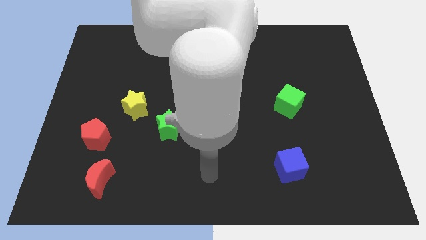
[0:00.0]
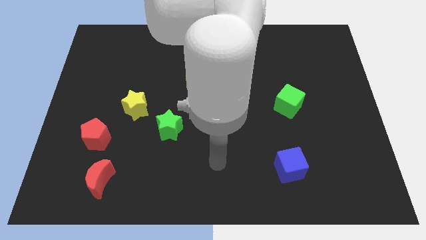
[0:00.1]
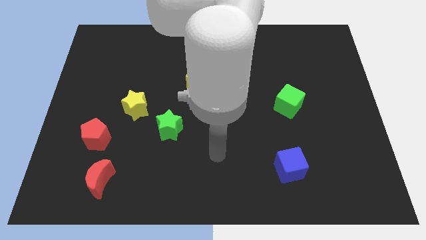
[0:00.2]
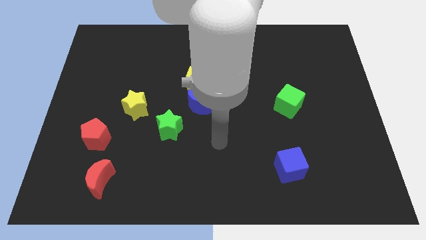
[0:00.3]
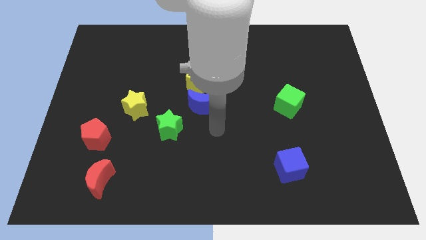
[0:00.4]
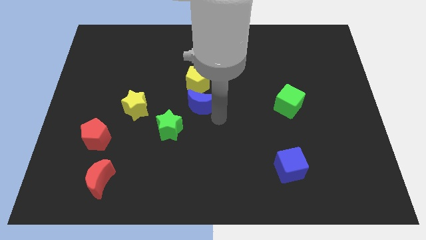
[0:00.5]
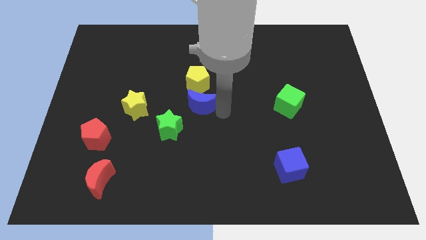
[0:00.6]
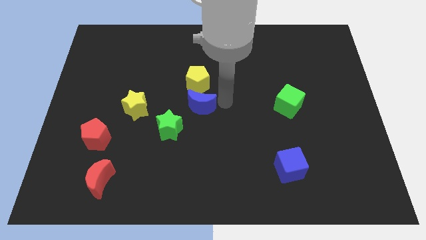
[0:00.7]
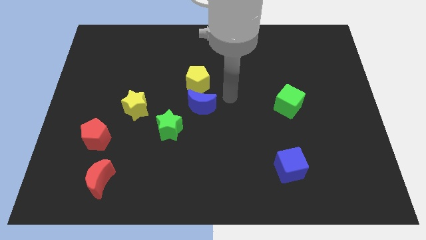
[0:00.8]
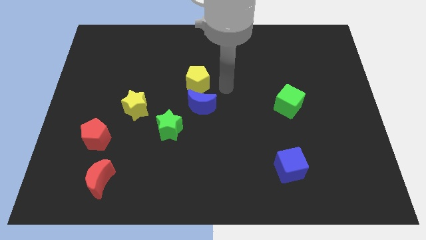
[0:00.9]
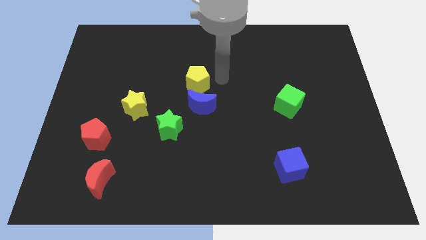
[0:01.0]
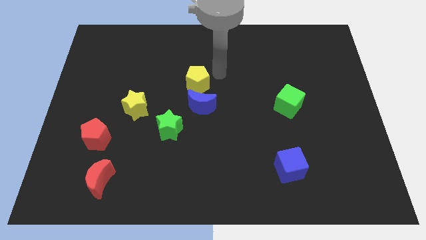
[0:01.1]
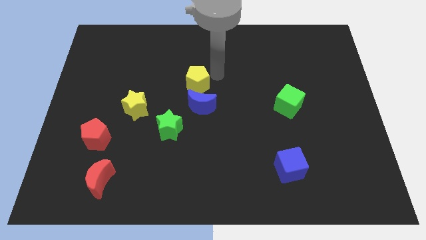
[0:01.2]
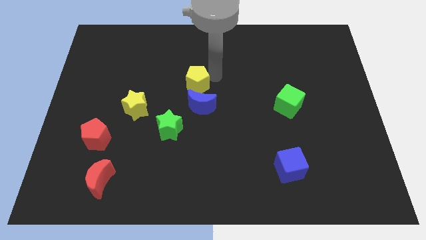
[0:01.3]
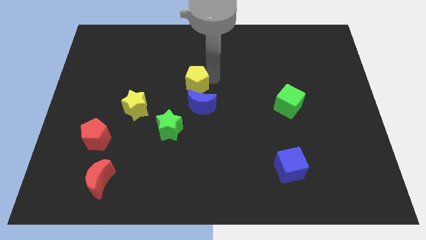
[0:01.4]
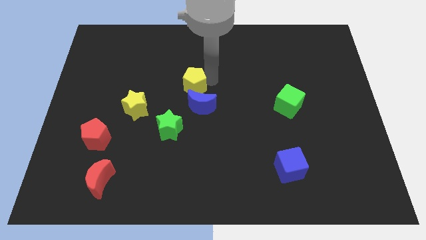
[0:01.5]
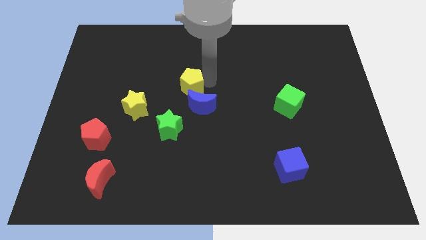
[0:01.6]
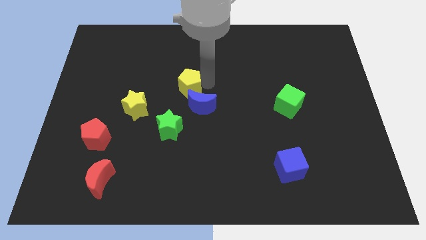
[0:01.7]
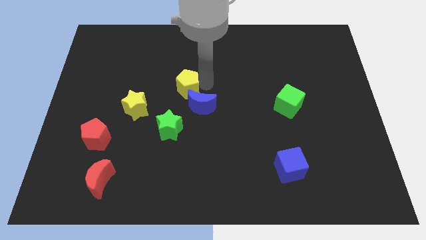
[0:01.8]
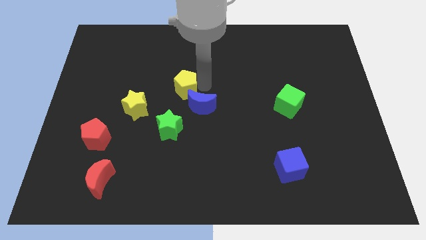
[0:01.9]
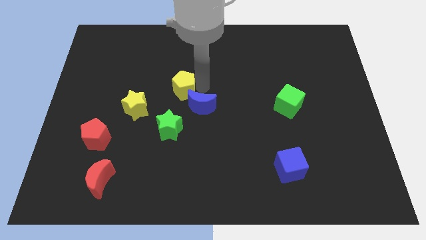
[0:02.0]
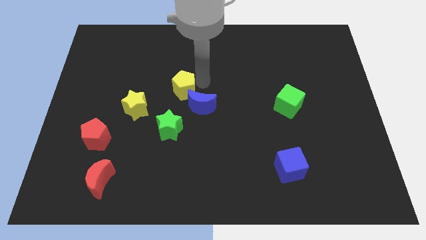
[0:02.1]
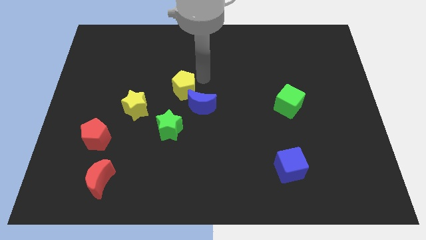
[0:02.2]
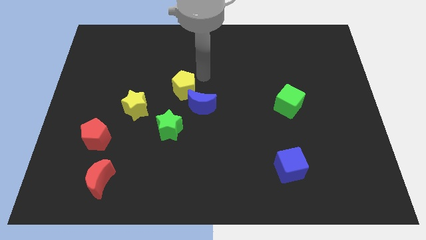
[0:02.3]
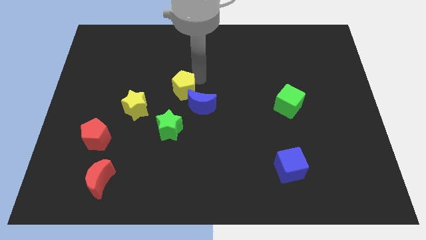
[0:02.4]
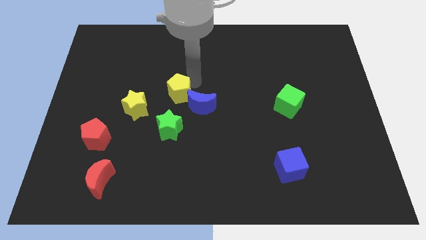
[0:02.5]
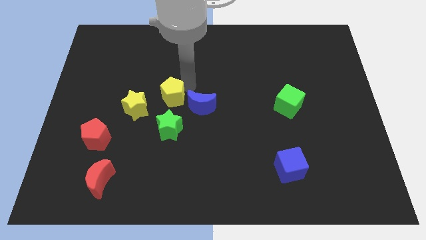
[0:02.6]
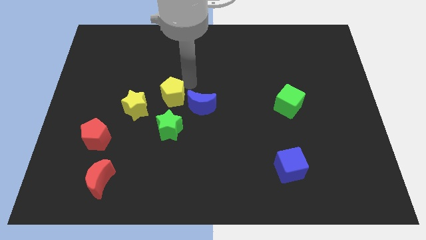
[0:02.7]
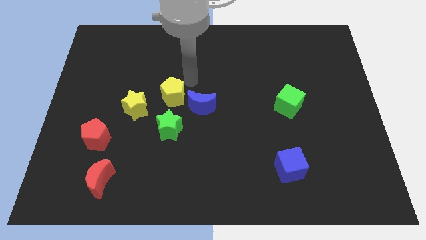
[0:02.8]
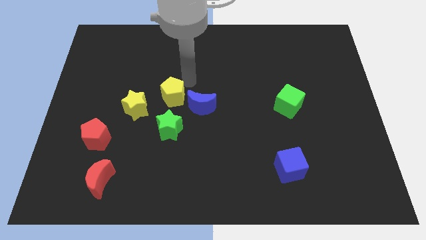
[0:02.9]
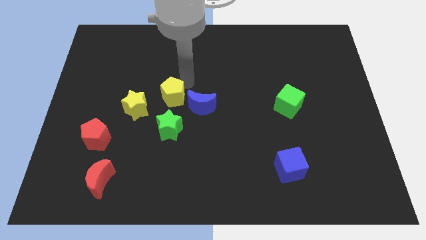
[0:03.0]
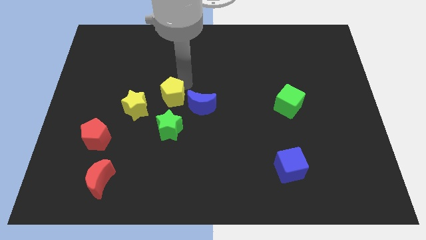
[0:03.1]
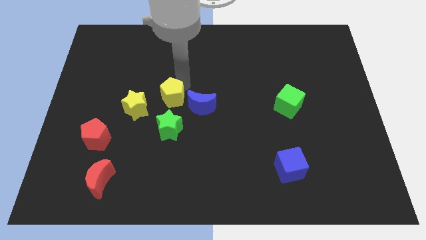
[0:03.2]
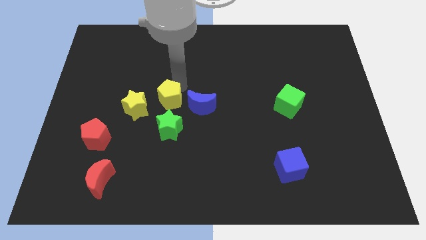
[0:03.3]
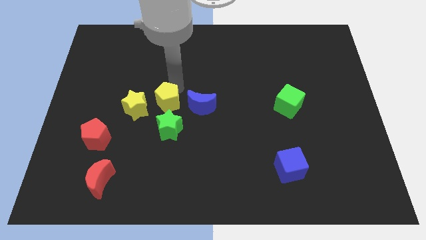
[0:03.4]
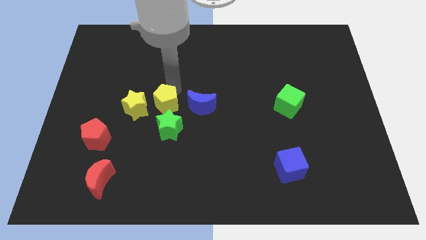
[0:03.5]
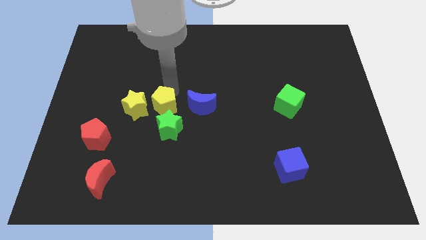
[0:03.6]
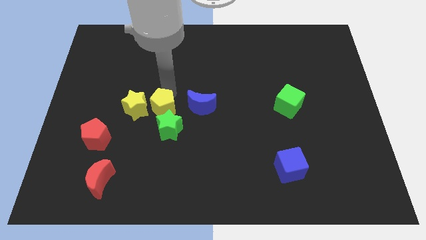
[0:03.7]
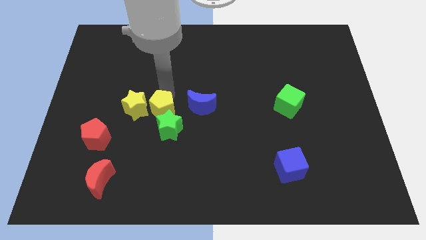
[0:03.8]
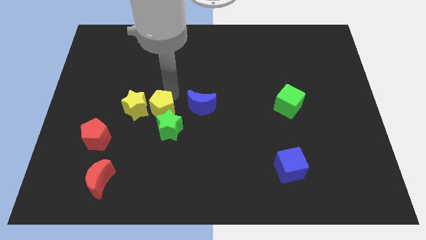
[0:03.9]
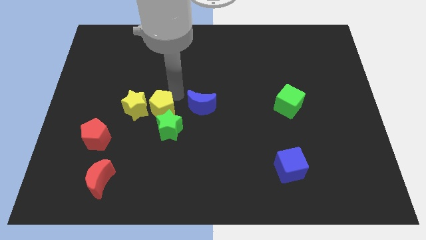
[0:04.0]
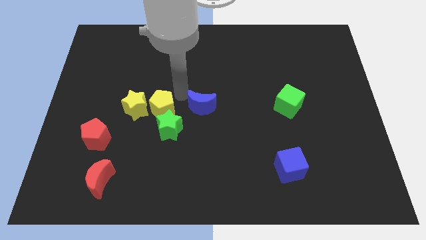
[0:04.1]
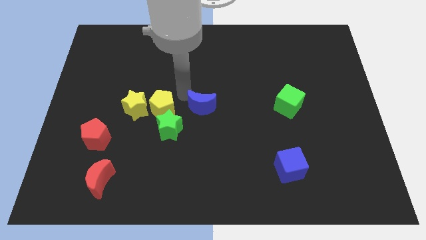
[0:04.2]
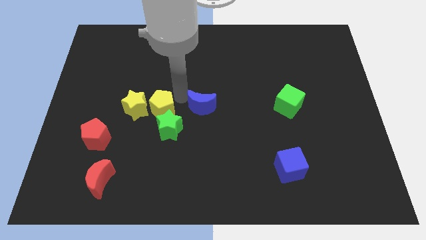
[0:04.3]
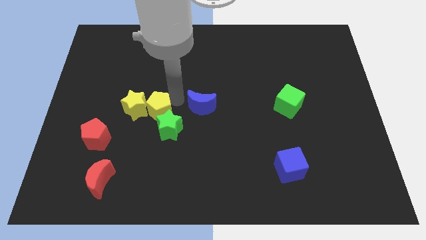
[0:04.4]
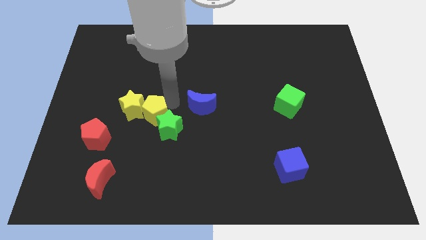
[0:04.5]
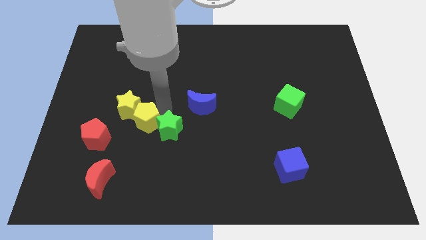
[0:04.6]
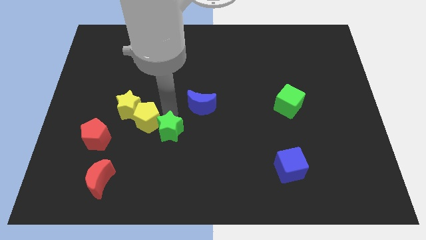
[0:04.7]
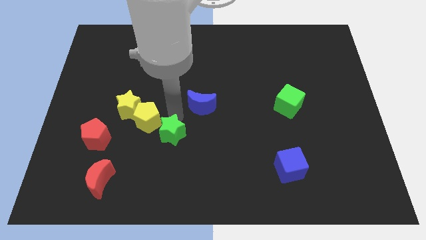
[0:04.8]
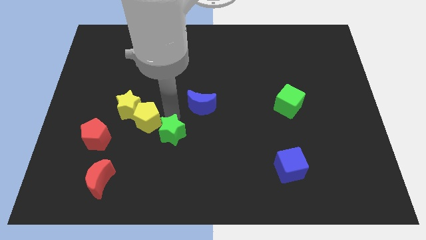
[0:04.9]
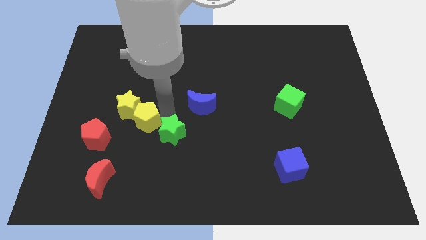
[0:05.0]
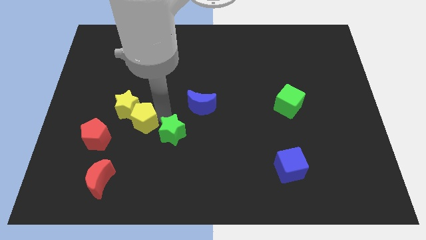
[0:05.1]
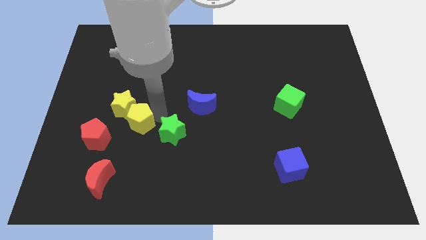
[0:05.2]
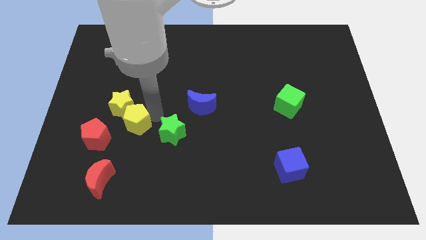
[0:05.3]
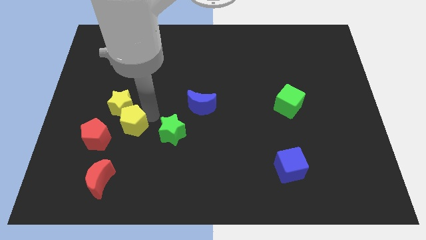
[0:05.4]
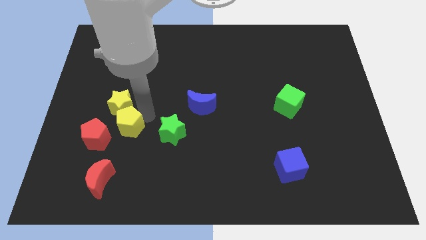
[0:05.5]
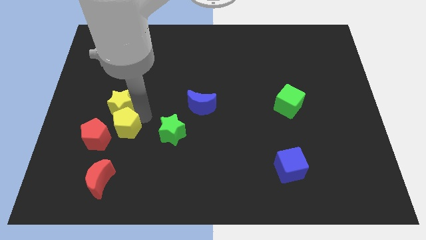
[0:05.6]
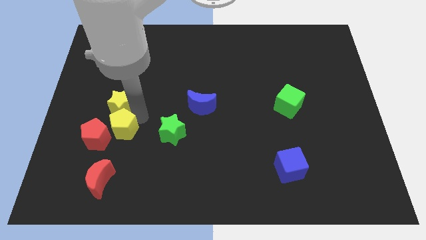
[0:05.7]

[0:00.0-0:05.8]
push the yellow pentagon to the bottom left of the yellow star

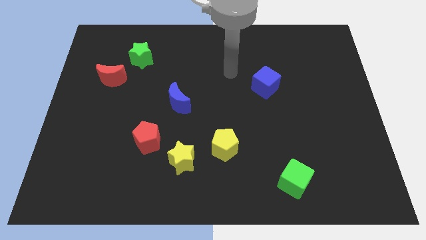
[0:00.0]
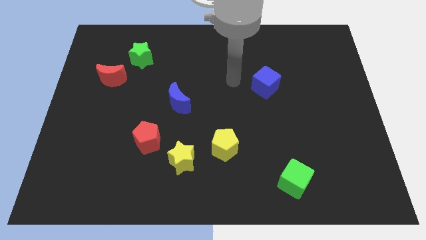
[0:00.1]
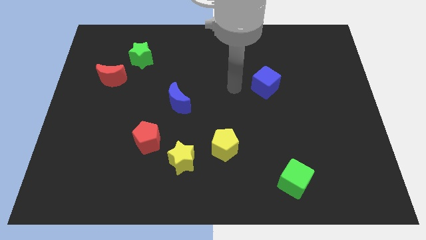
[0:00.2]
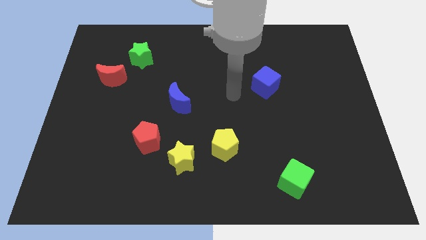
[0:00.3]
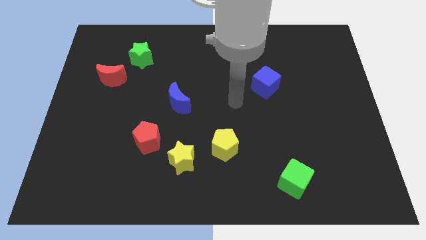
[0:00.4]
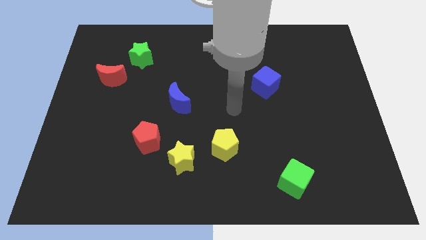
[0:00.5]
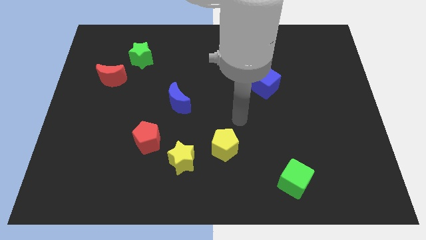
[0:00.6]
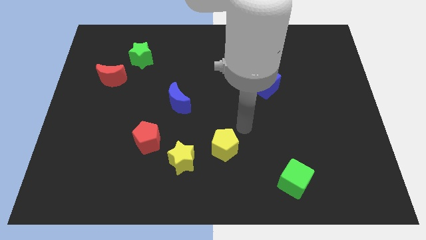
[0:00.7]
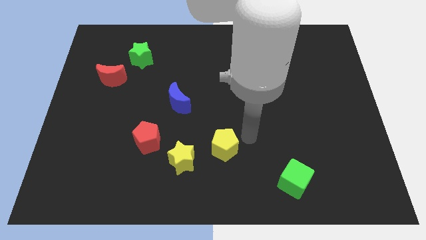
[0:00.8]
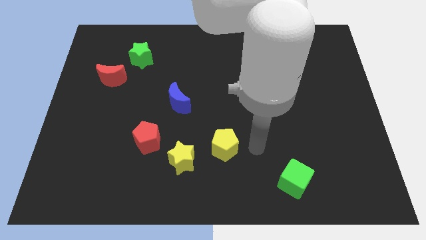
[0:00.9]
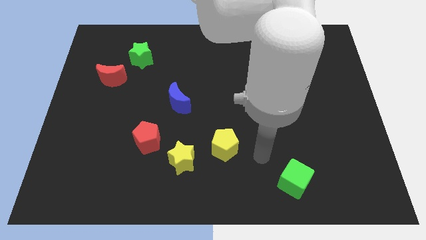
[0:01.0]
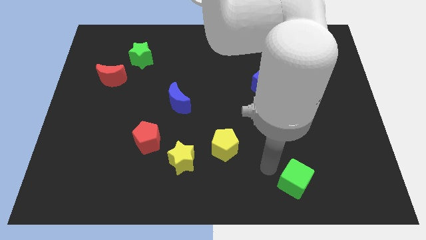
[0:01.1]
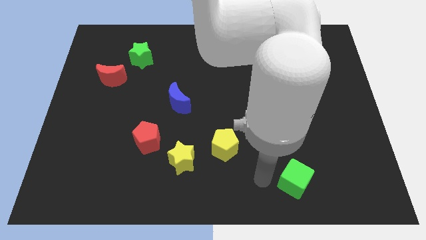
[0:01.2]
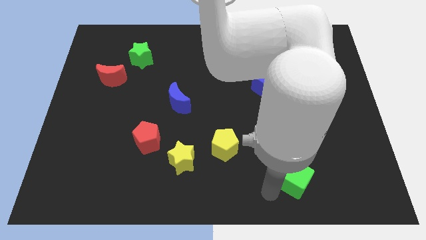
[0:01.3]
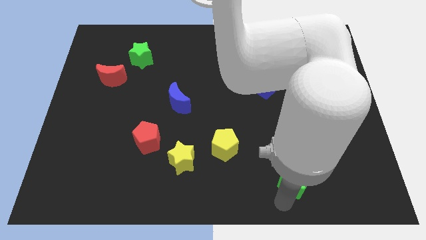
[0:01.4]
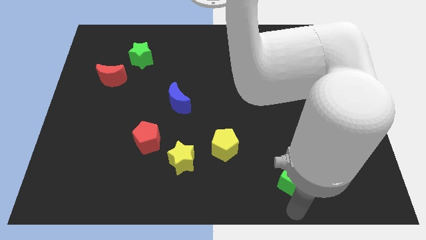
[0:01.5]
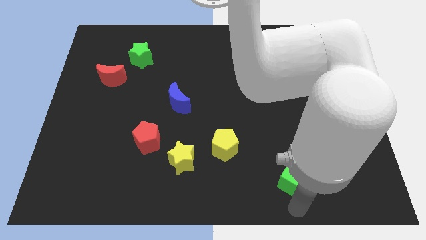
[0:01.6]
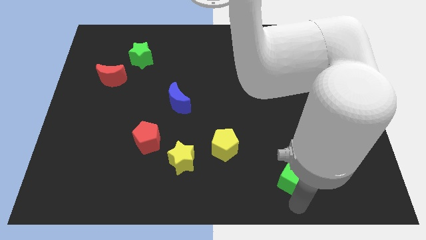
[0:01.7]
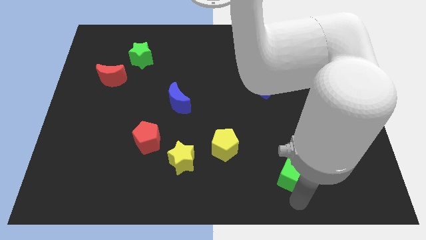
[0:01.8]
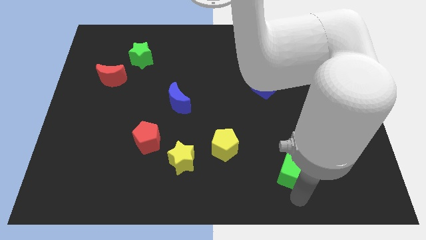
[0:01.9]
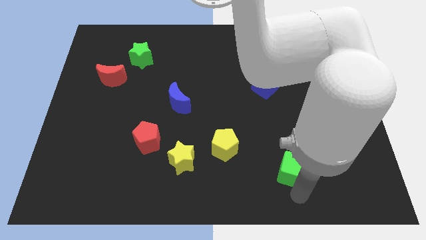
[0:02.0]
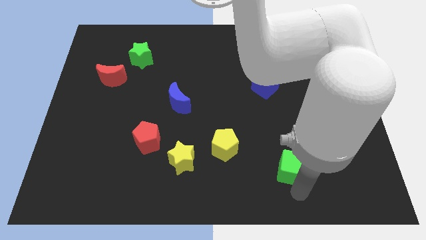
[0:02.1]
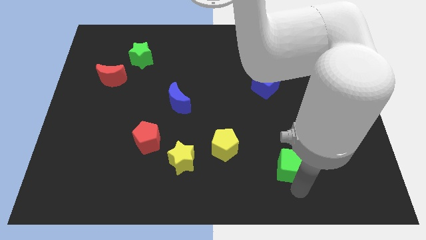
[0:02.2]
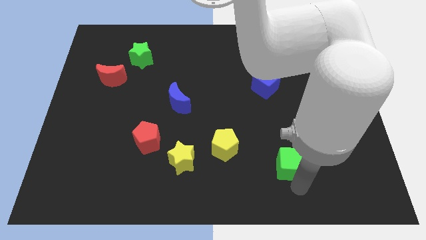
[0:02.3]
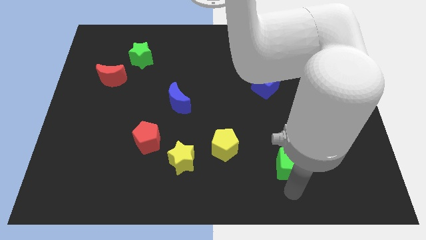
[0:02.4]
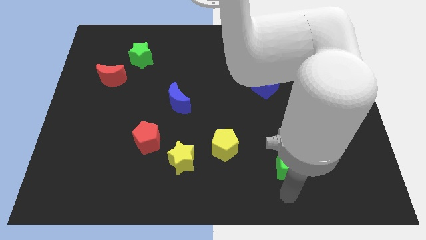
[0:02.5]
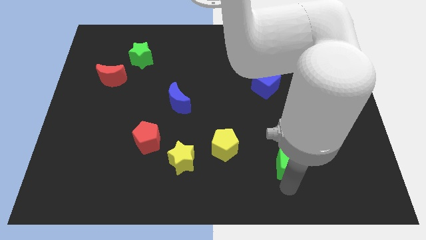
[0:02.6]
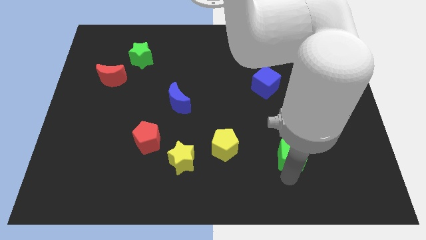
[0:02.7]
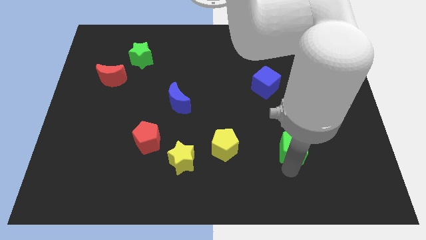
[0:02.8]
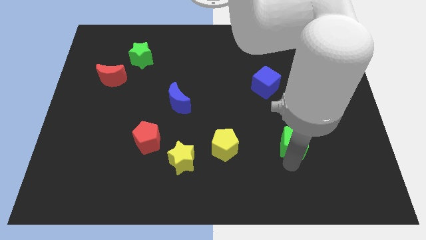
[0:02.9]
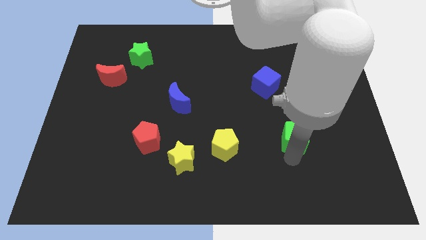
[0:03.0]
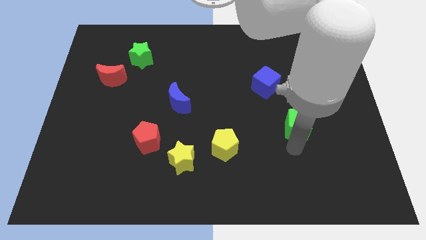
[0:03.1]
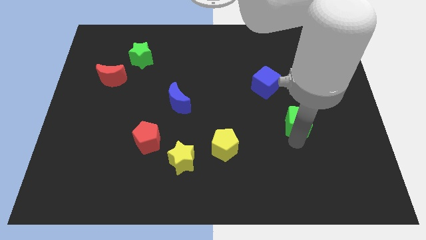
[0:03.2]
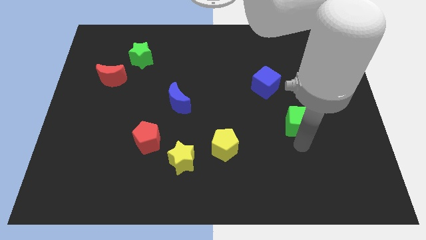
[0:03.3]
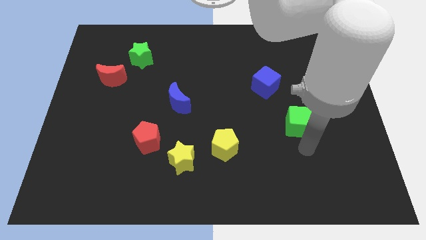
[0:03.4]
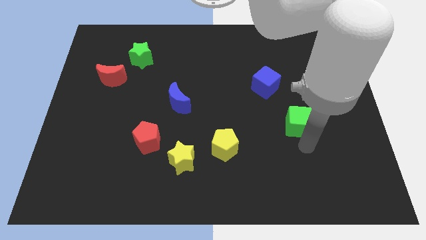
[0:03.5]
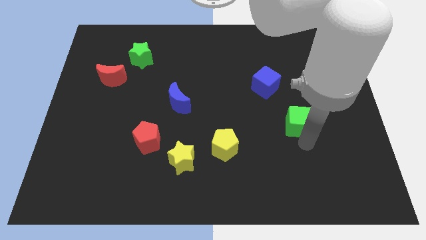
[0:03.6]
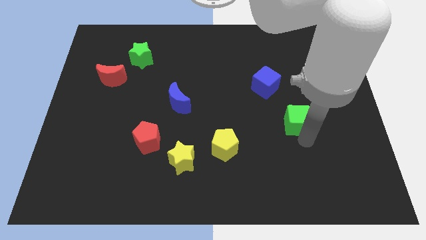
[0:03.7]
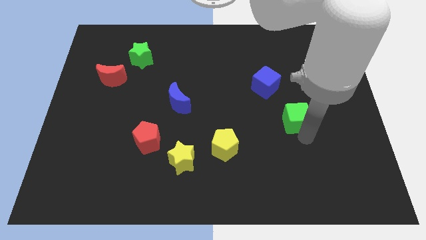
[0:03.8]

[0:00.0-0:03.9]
move the green cube diagonally down and to the right of the blue cube
